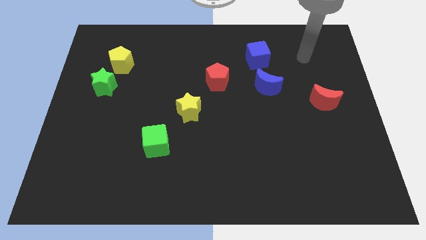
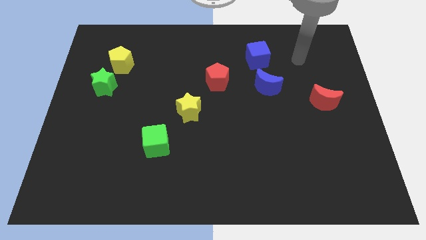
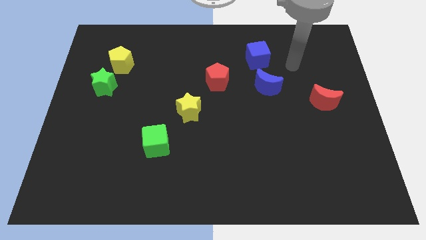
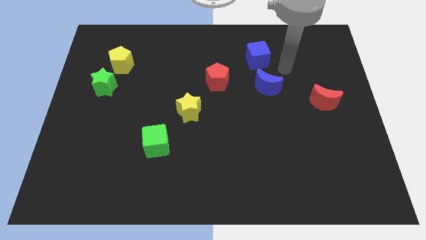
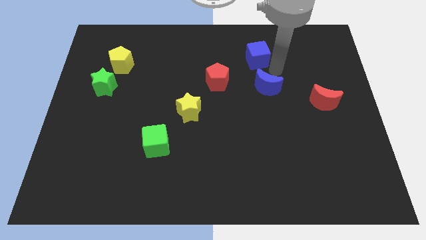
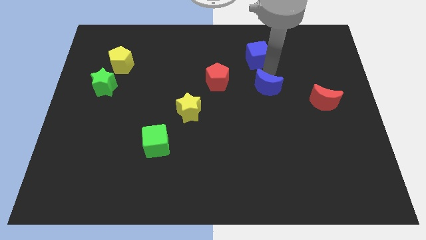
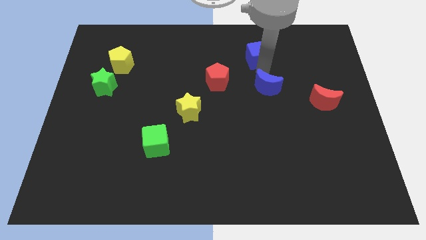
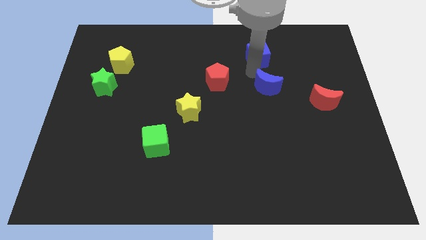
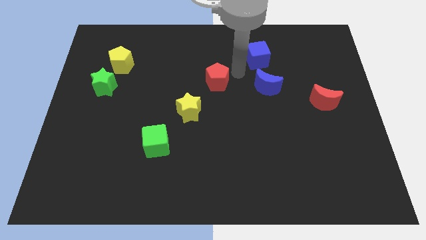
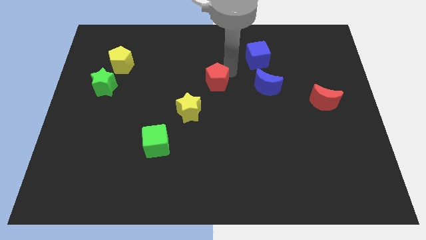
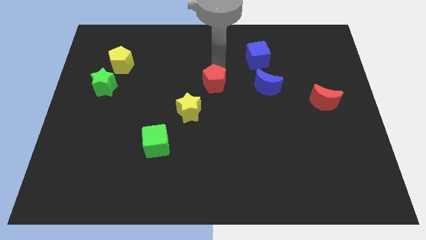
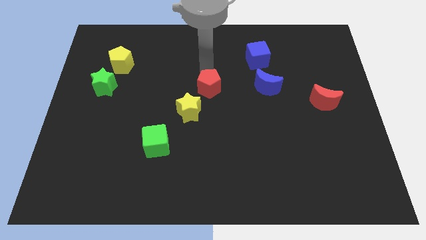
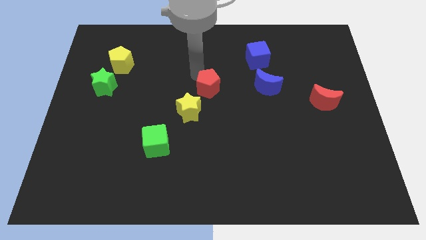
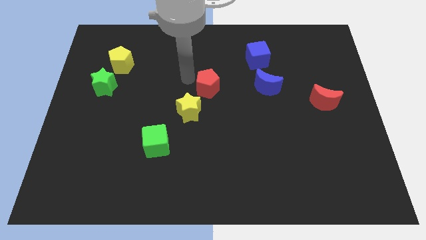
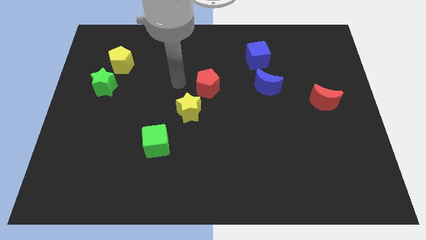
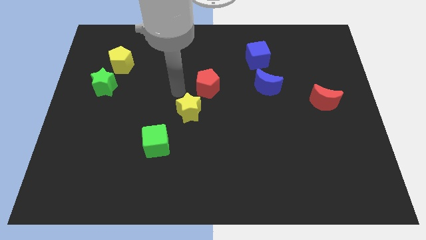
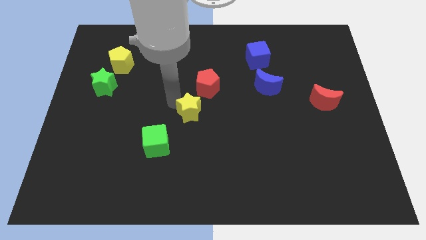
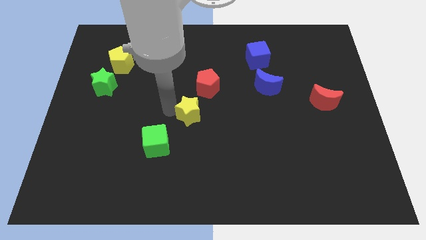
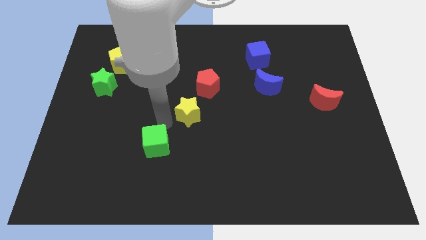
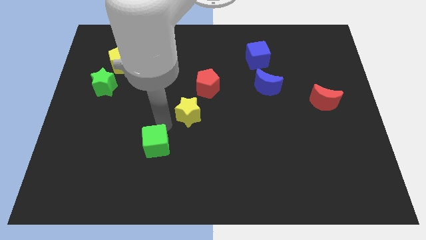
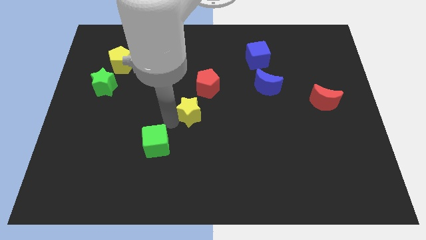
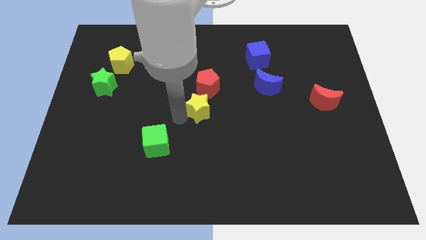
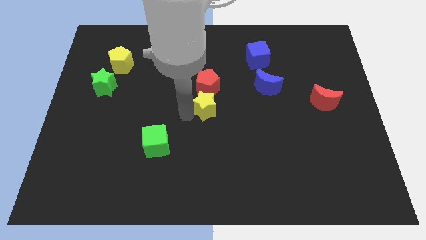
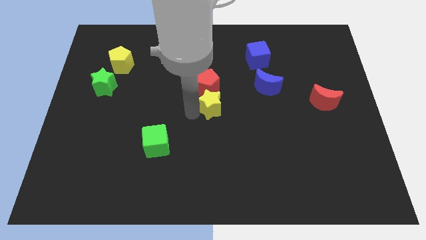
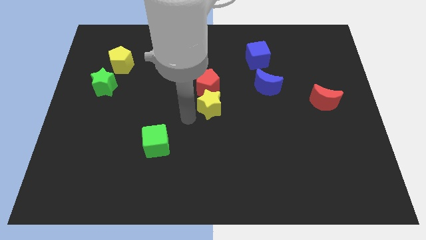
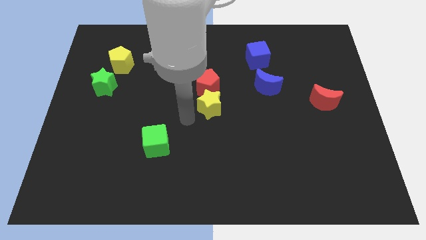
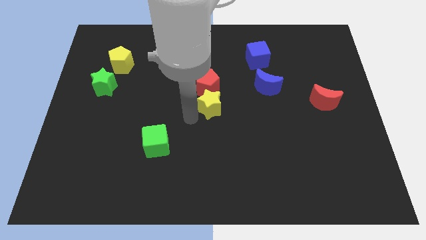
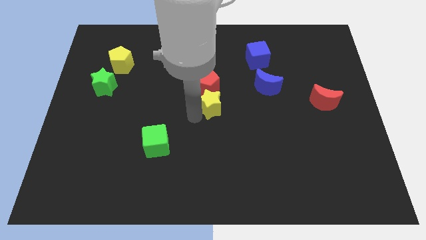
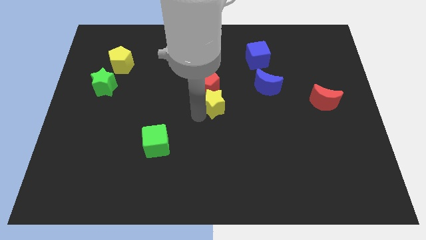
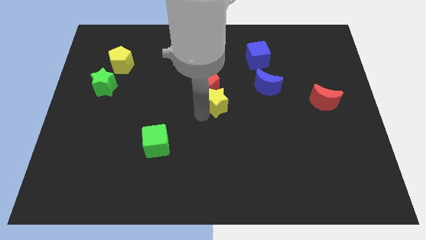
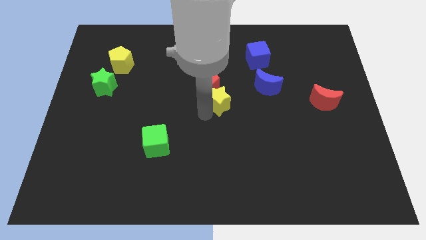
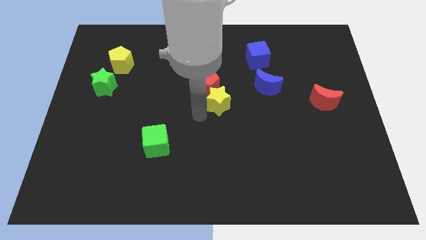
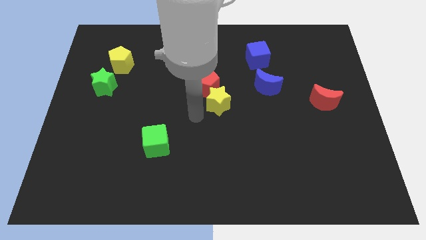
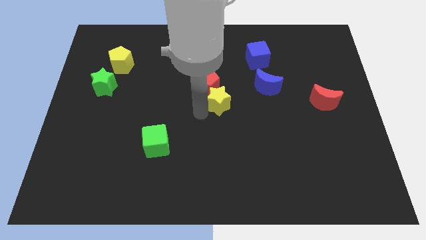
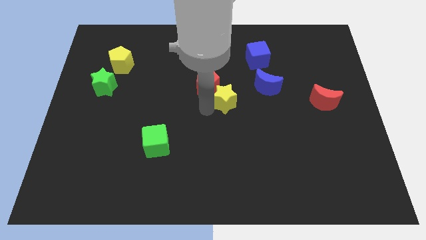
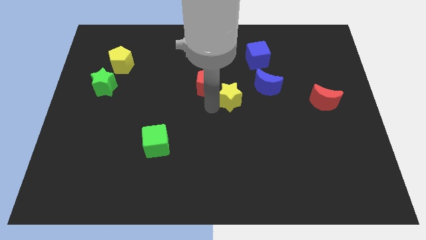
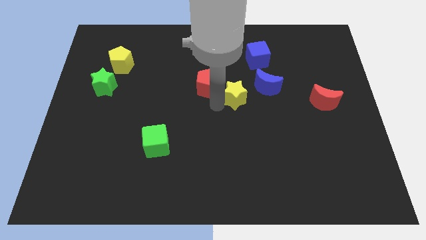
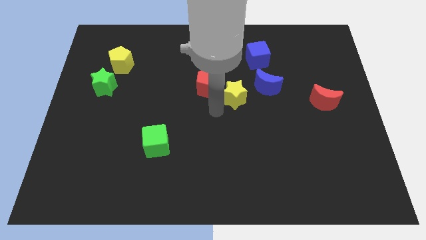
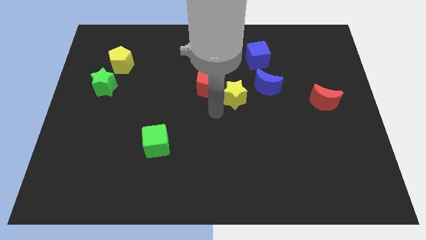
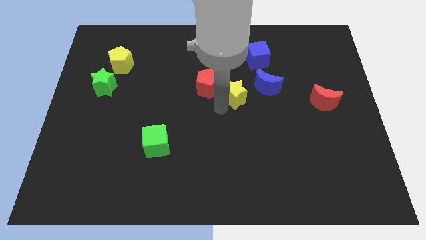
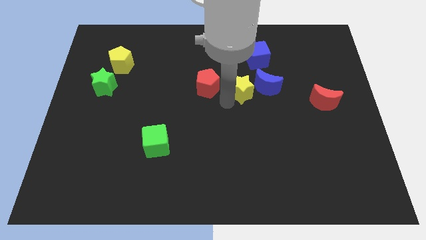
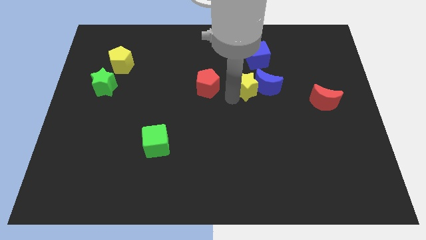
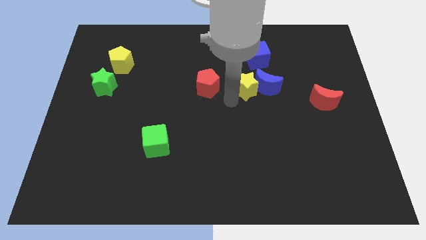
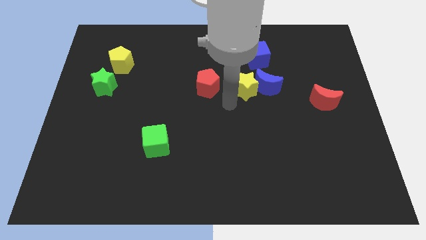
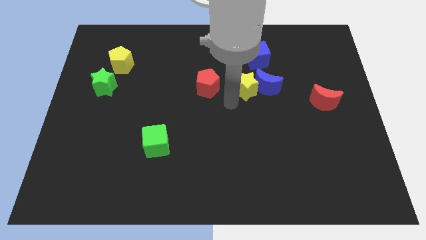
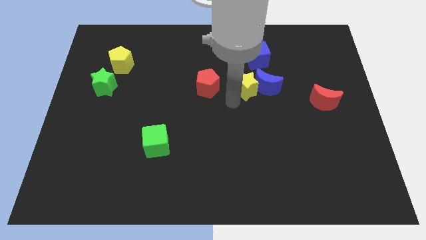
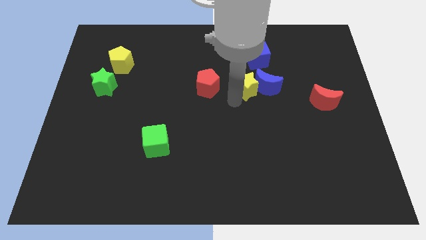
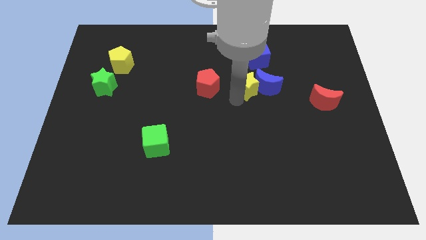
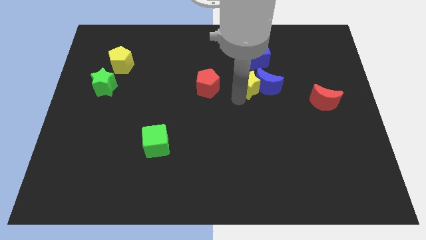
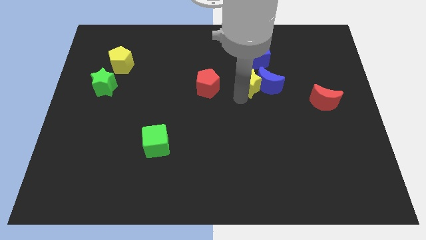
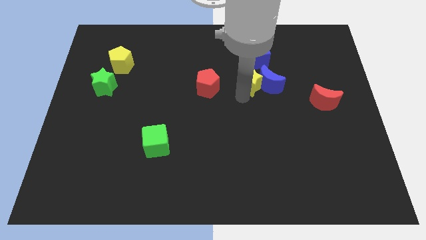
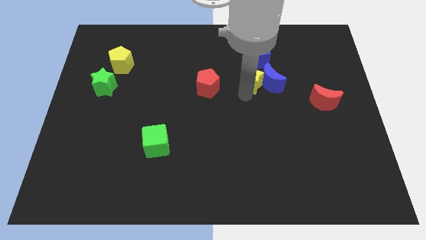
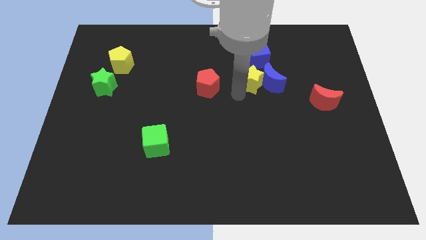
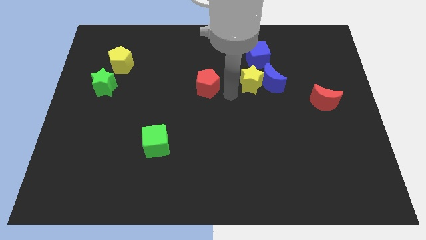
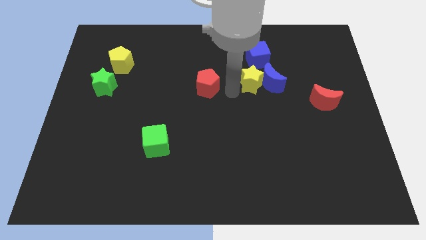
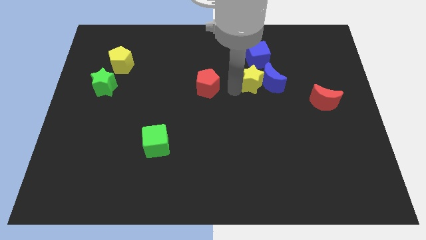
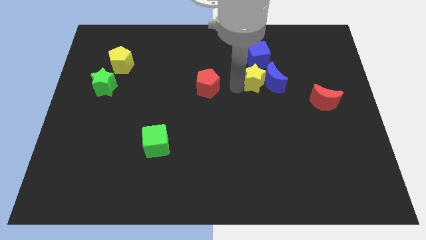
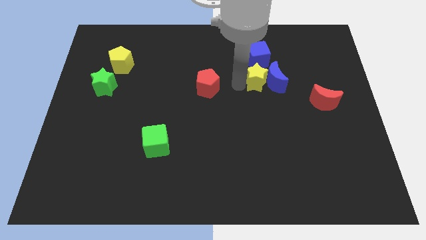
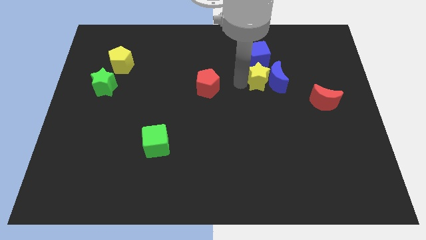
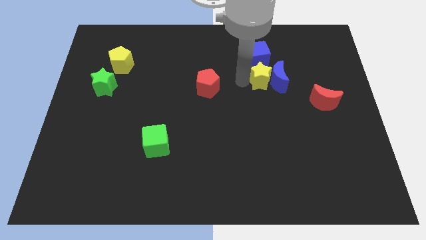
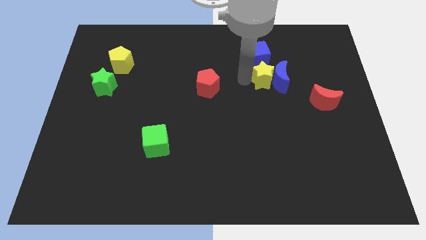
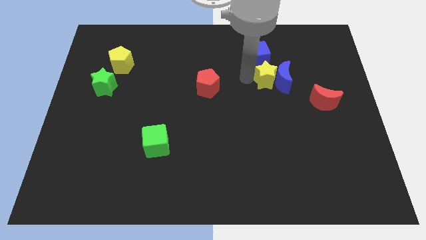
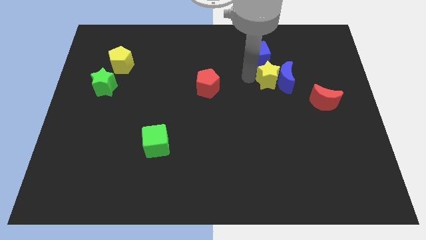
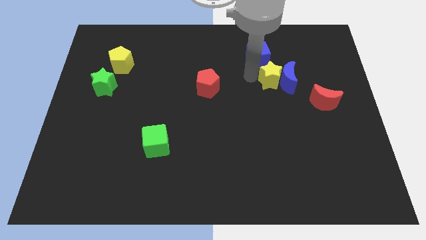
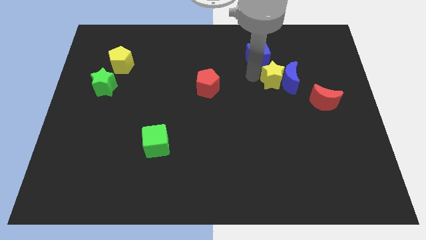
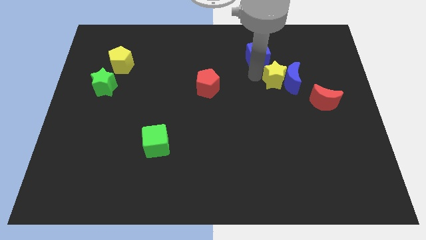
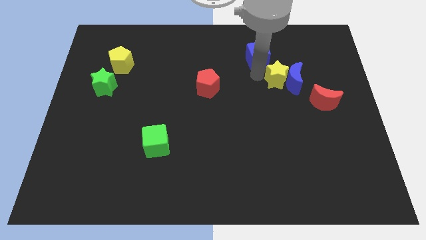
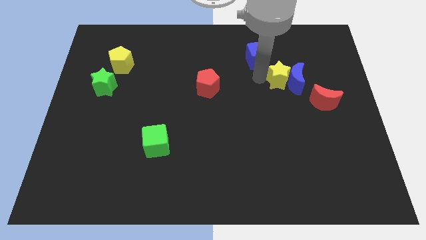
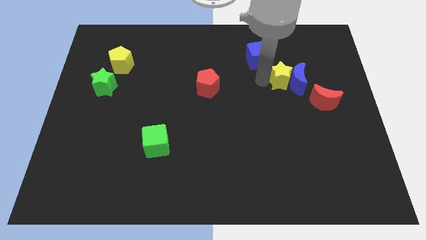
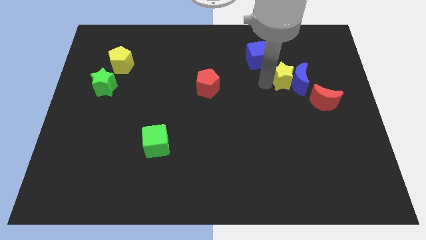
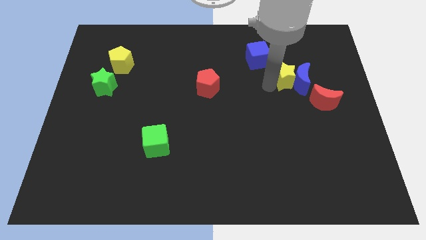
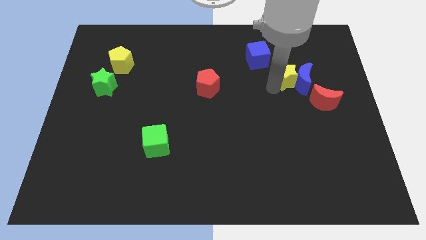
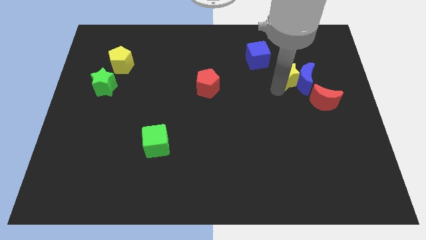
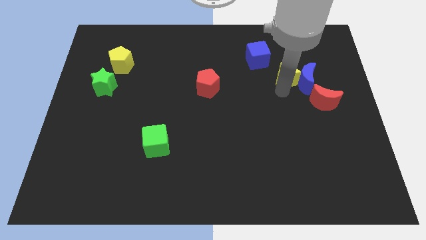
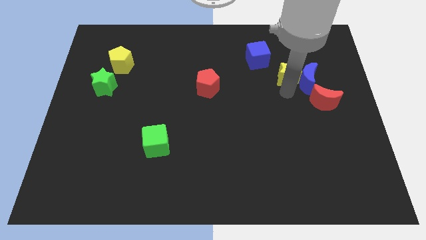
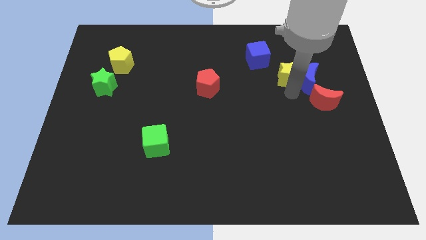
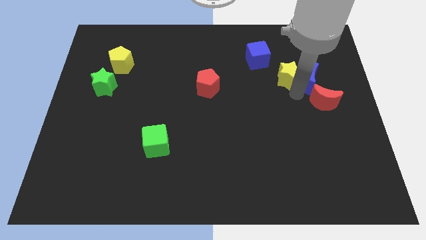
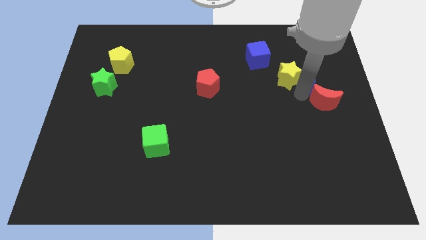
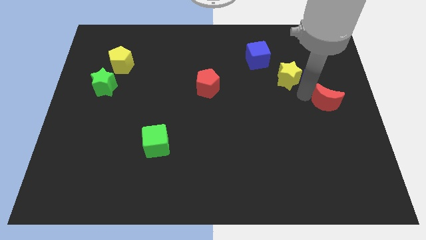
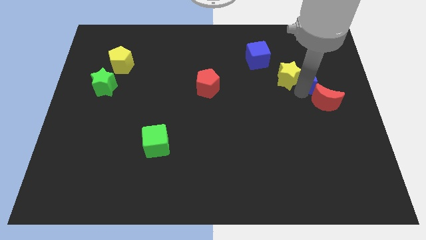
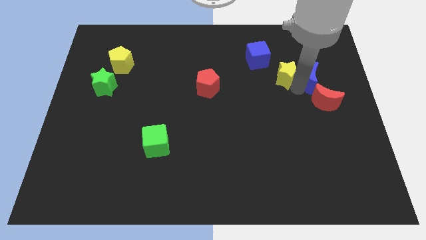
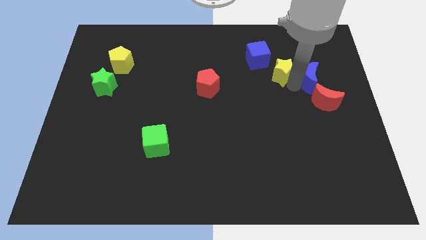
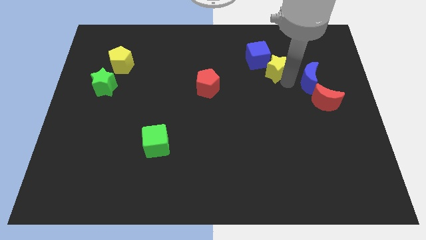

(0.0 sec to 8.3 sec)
push the yellow star right of the blue cube
